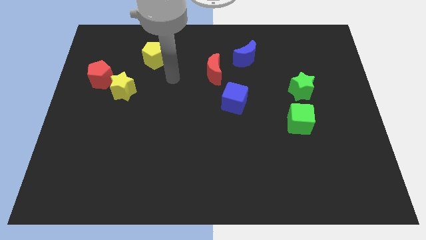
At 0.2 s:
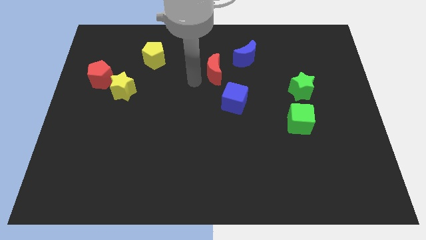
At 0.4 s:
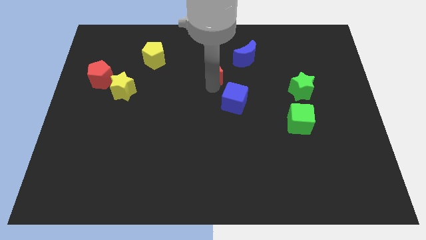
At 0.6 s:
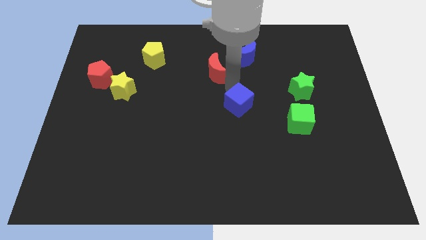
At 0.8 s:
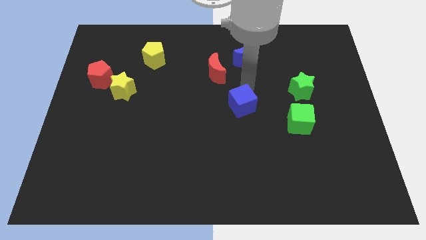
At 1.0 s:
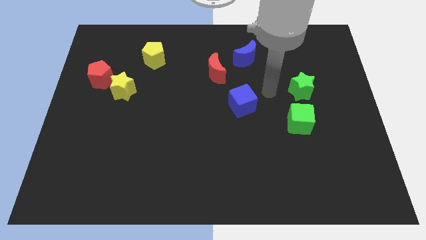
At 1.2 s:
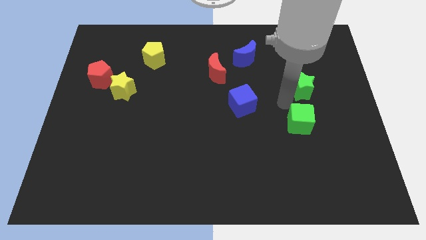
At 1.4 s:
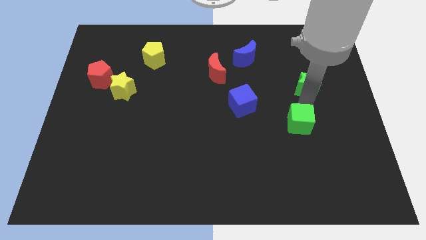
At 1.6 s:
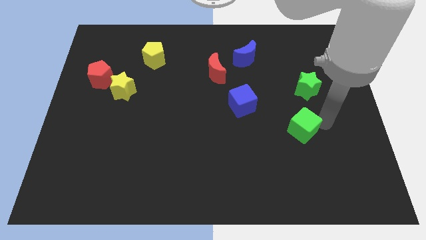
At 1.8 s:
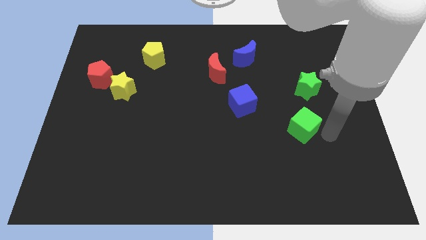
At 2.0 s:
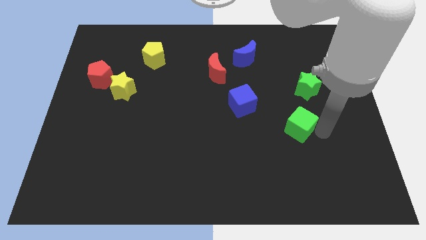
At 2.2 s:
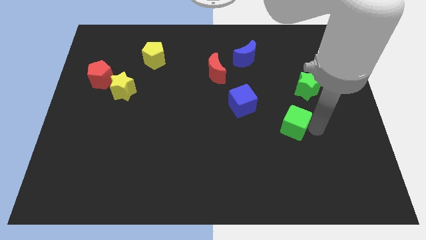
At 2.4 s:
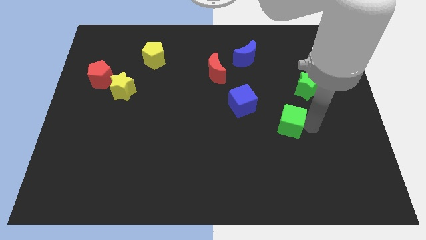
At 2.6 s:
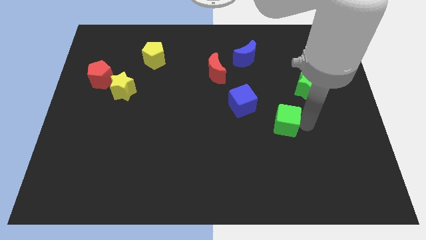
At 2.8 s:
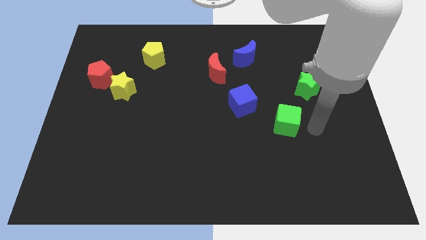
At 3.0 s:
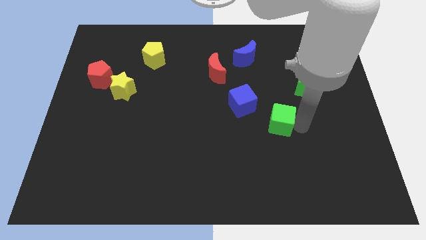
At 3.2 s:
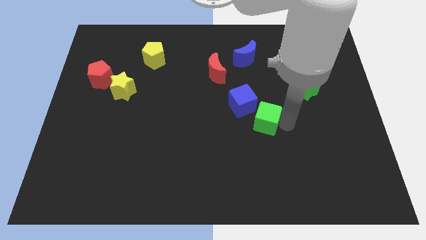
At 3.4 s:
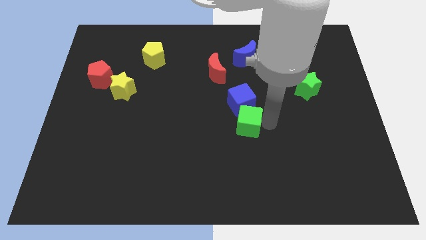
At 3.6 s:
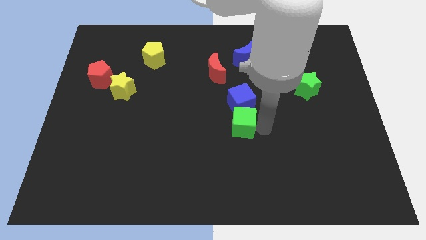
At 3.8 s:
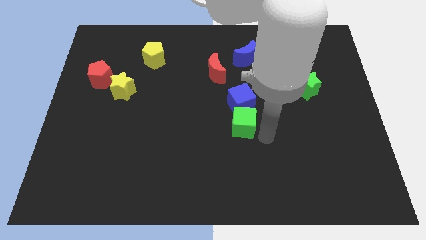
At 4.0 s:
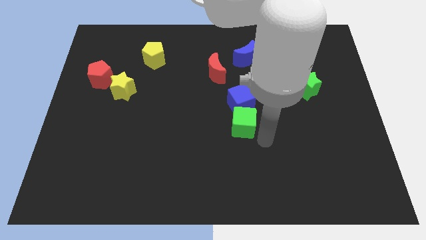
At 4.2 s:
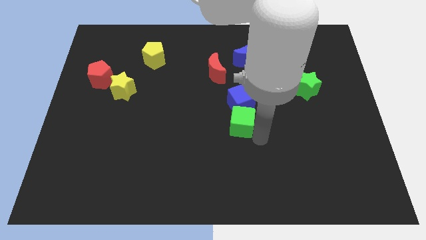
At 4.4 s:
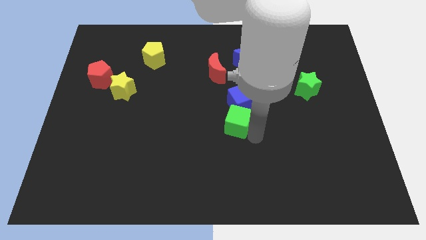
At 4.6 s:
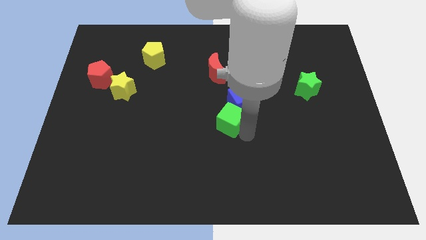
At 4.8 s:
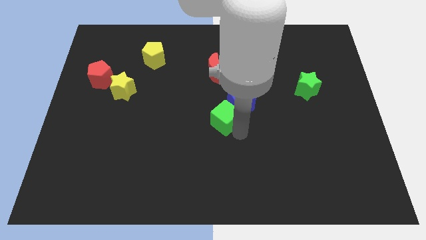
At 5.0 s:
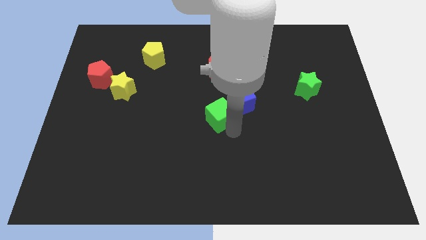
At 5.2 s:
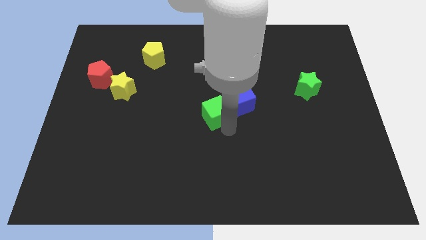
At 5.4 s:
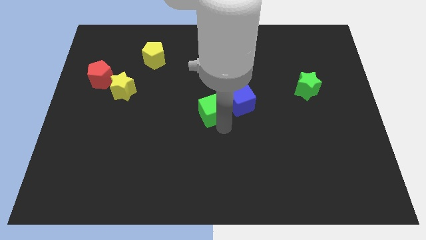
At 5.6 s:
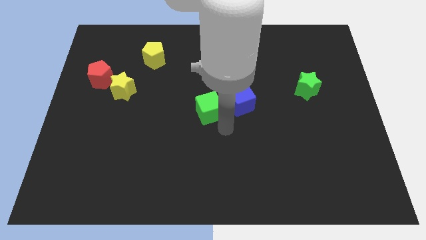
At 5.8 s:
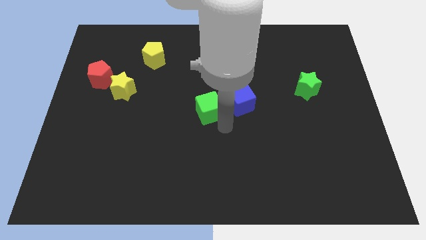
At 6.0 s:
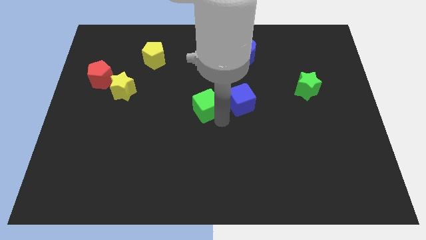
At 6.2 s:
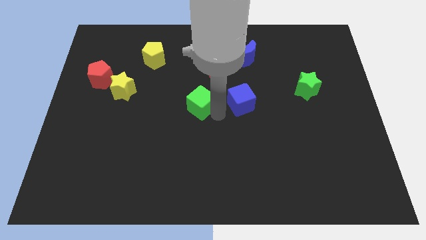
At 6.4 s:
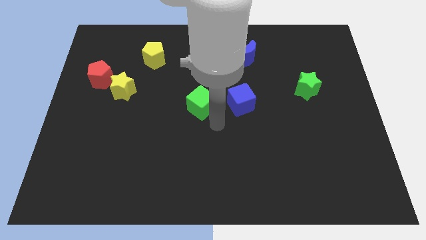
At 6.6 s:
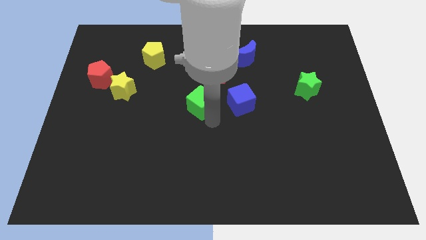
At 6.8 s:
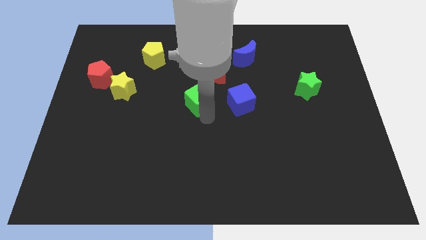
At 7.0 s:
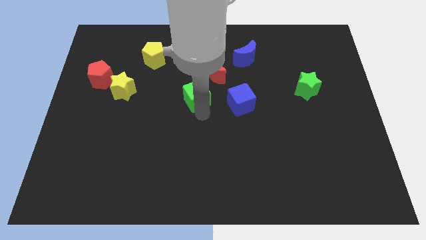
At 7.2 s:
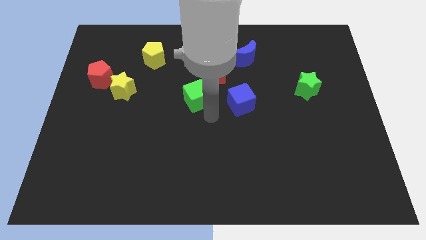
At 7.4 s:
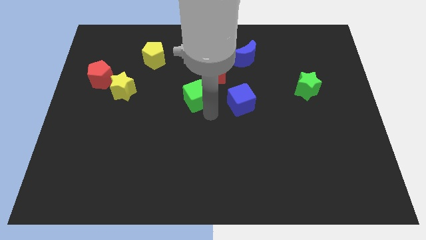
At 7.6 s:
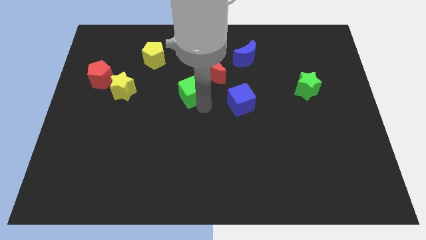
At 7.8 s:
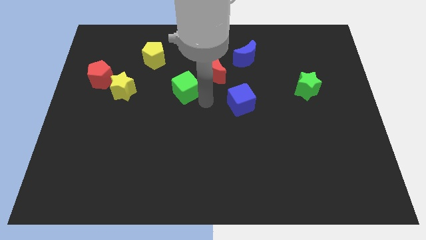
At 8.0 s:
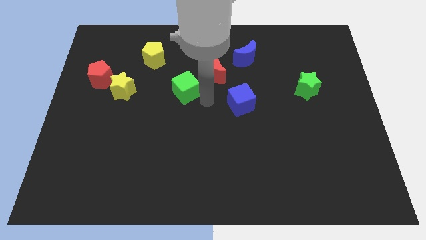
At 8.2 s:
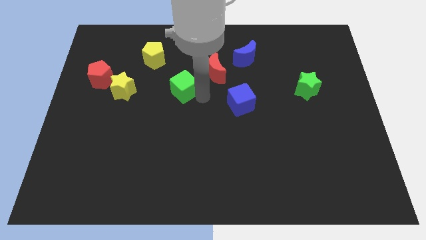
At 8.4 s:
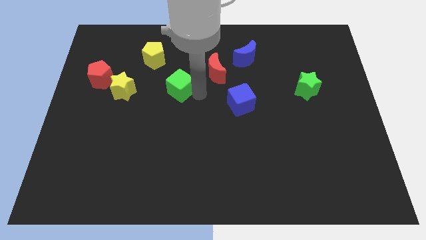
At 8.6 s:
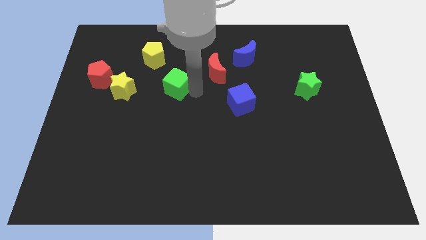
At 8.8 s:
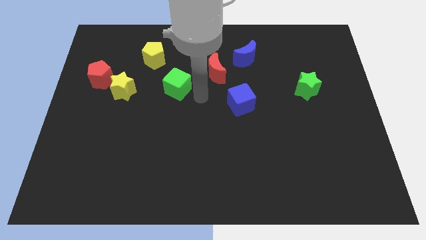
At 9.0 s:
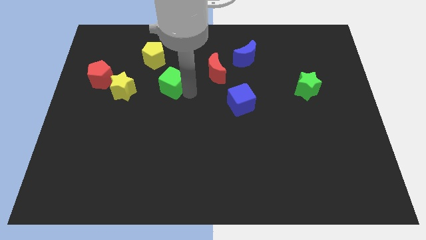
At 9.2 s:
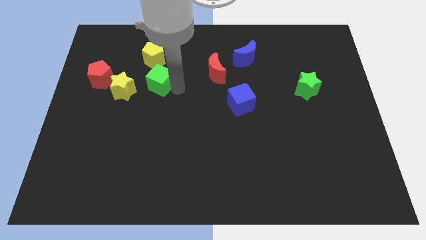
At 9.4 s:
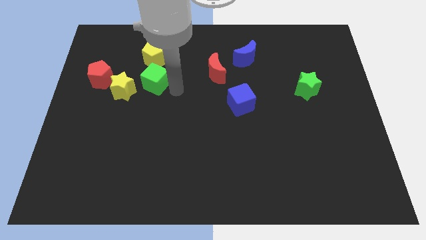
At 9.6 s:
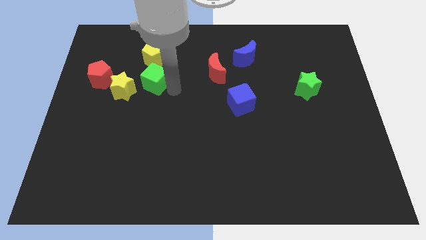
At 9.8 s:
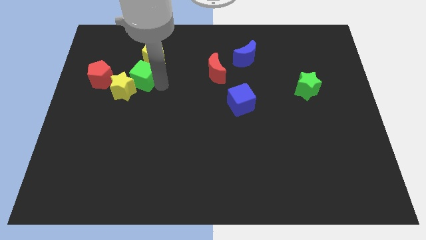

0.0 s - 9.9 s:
move the green cube to the bottom left of the yellow pentagon

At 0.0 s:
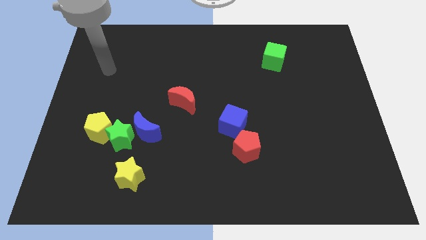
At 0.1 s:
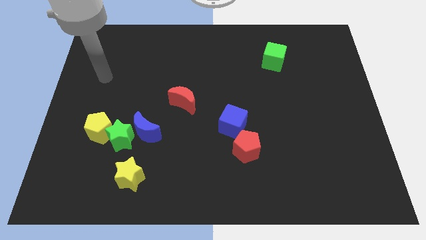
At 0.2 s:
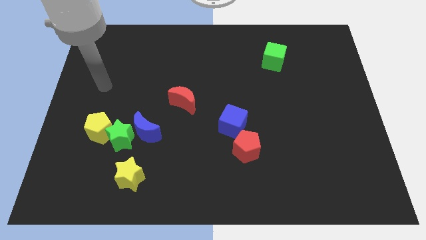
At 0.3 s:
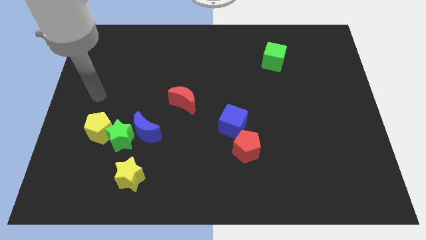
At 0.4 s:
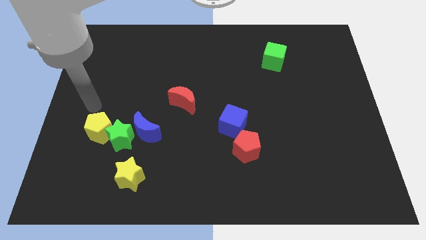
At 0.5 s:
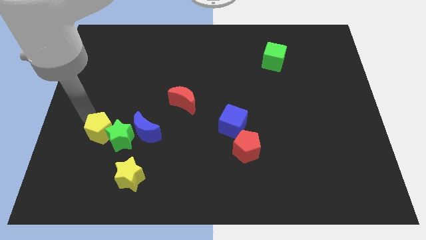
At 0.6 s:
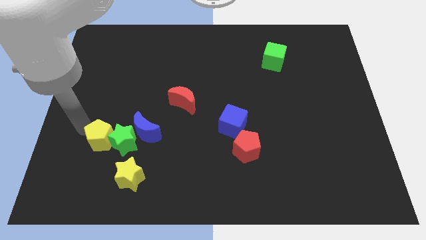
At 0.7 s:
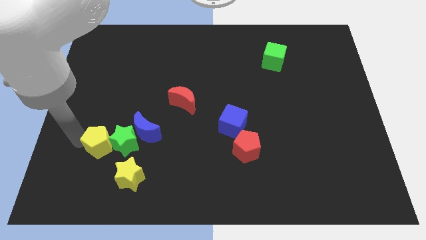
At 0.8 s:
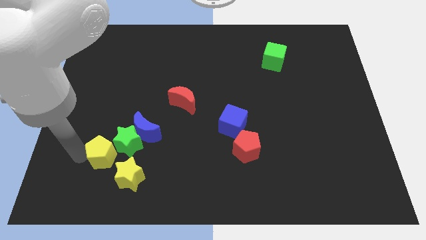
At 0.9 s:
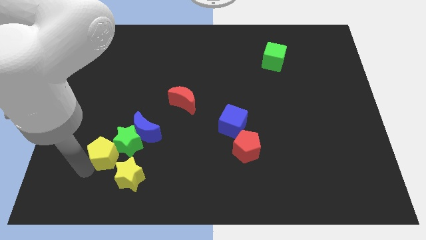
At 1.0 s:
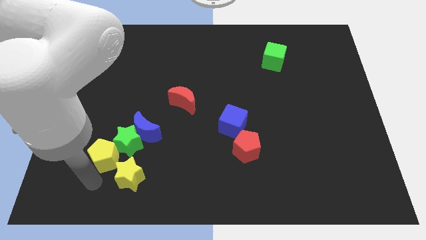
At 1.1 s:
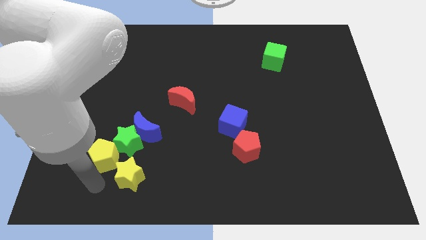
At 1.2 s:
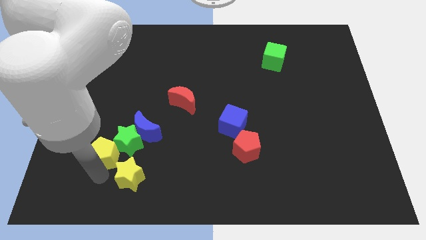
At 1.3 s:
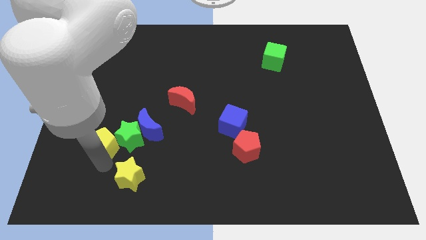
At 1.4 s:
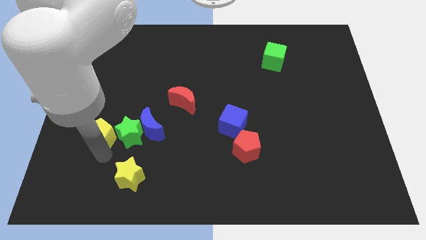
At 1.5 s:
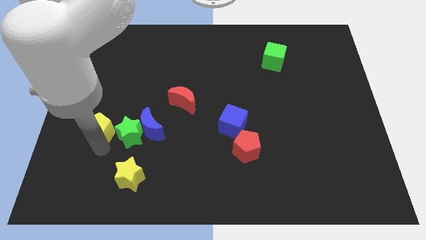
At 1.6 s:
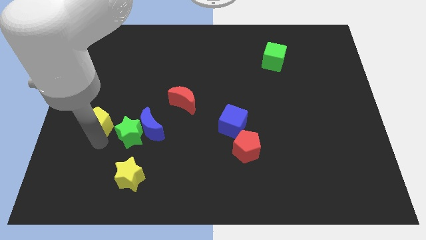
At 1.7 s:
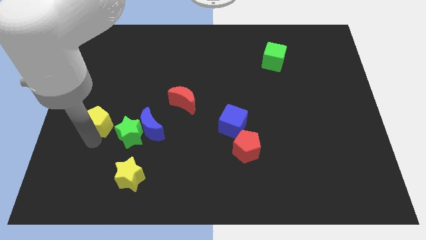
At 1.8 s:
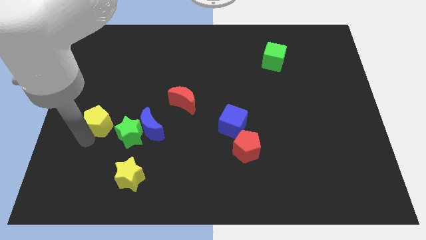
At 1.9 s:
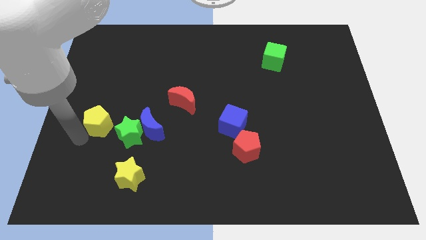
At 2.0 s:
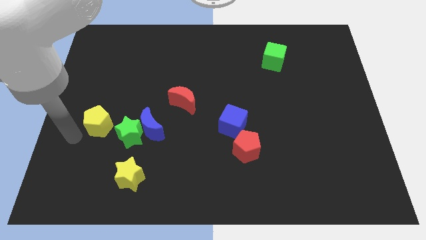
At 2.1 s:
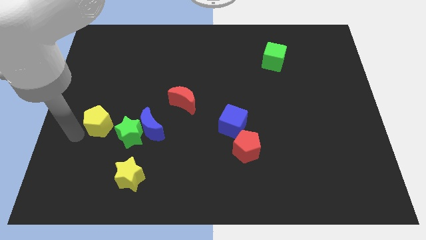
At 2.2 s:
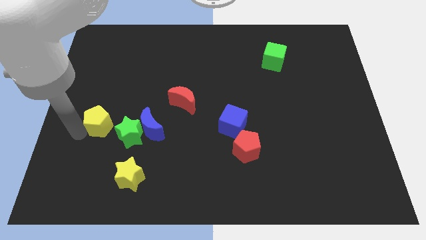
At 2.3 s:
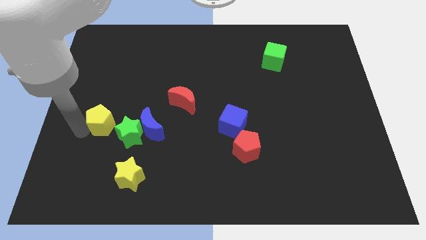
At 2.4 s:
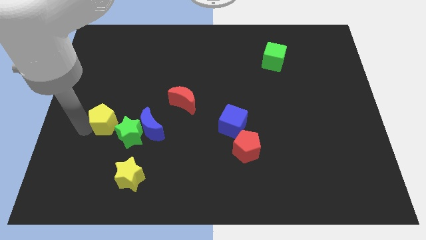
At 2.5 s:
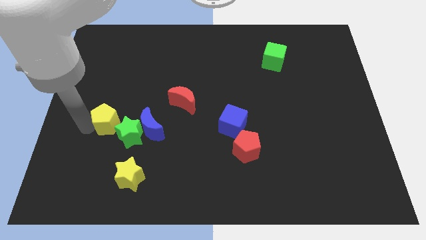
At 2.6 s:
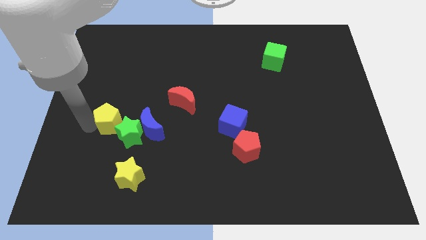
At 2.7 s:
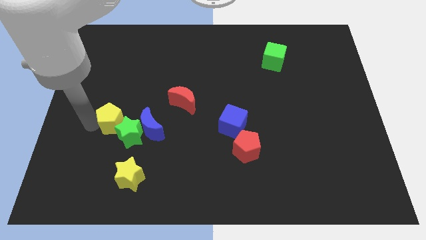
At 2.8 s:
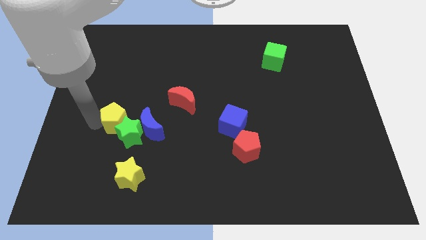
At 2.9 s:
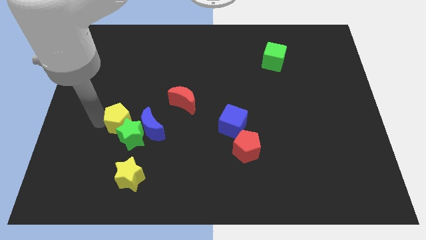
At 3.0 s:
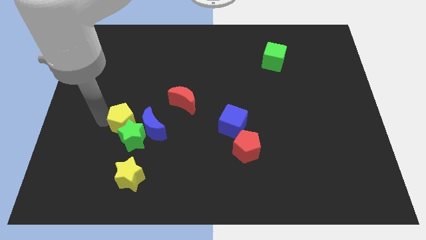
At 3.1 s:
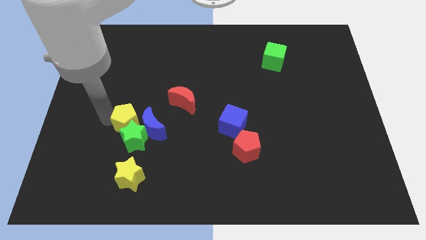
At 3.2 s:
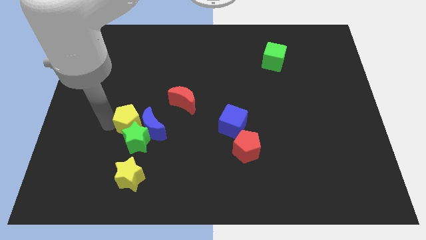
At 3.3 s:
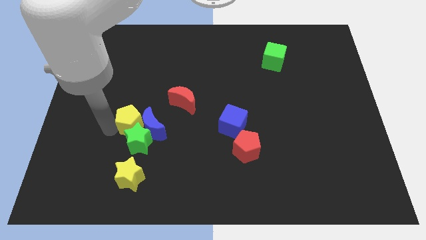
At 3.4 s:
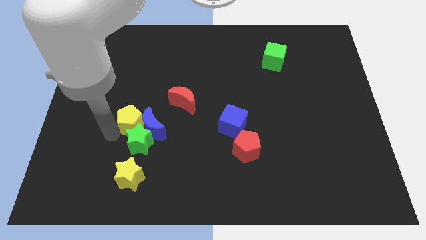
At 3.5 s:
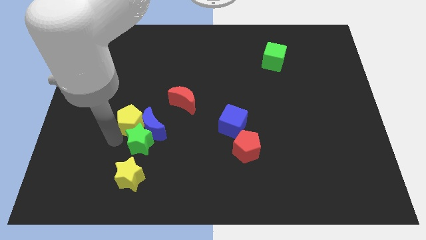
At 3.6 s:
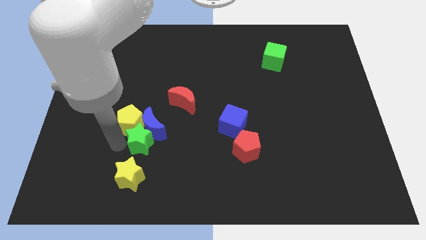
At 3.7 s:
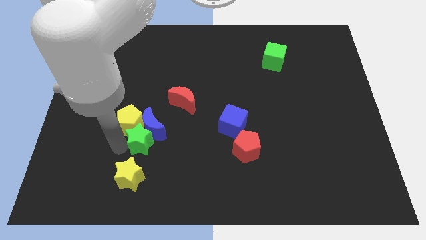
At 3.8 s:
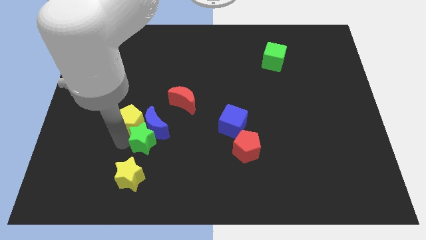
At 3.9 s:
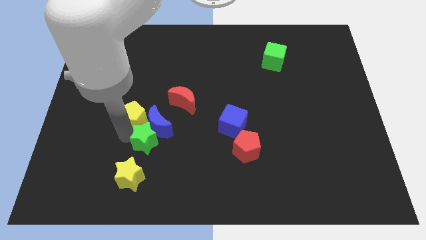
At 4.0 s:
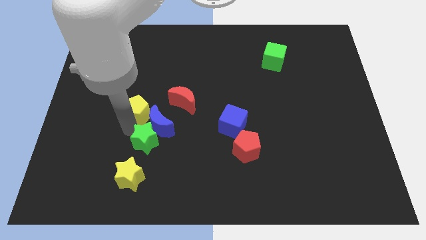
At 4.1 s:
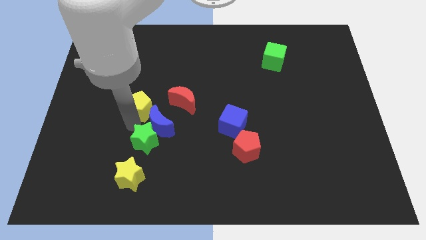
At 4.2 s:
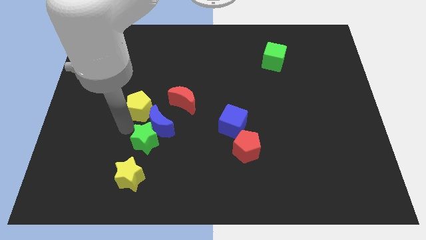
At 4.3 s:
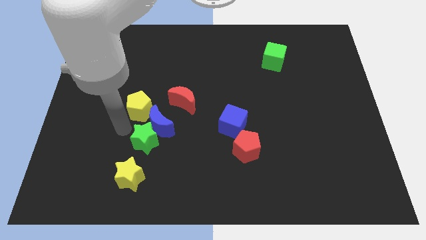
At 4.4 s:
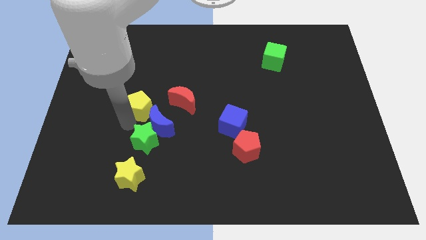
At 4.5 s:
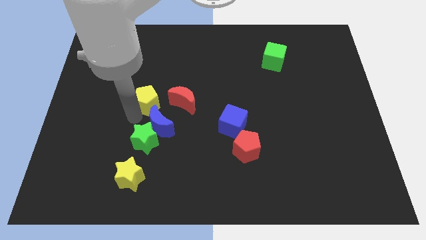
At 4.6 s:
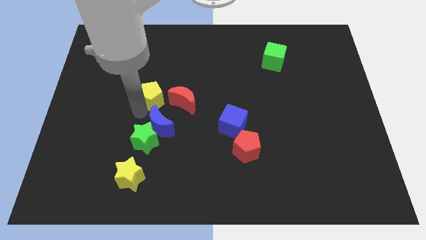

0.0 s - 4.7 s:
push the yellow pentagon diagonally up and to the left of the red moon
